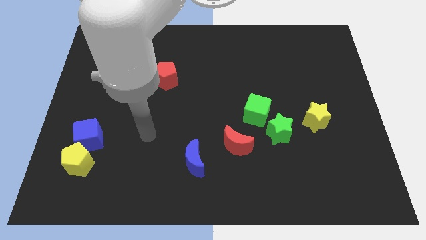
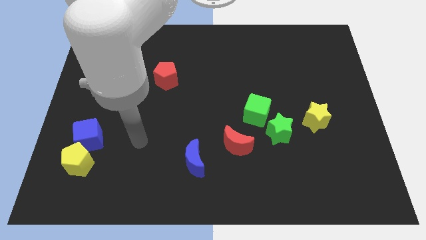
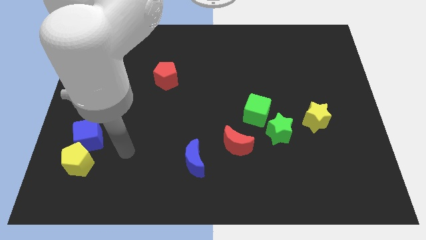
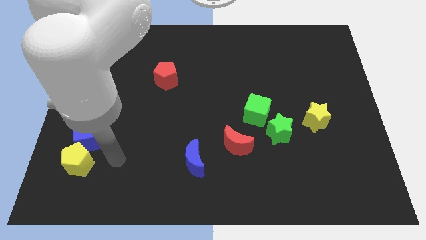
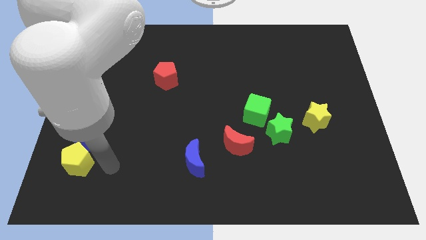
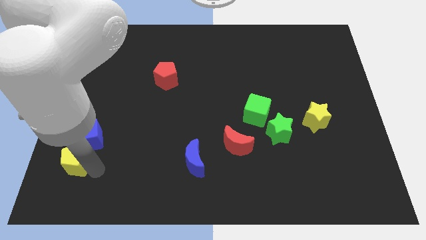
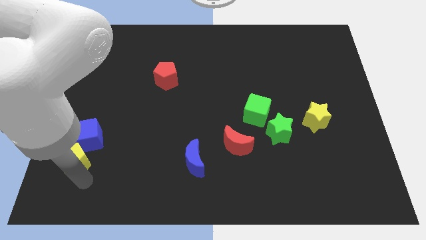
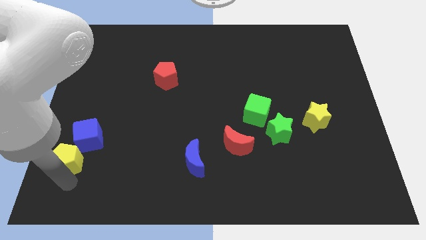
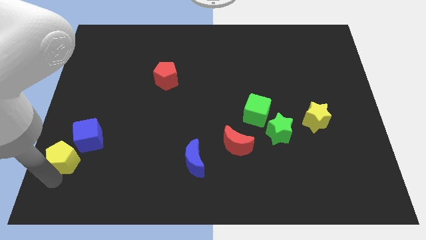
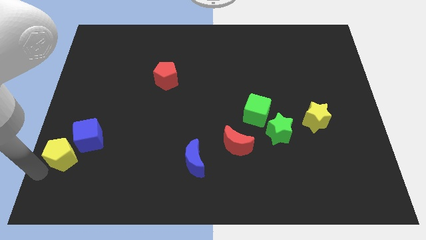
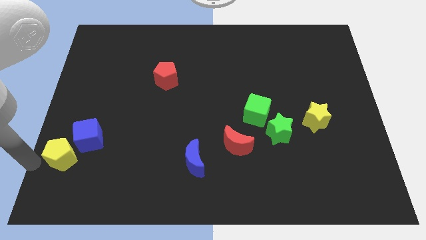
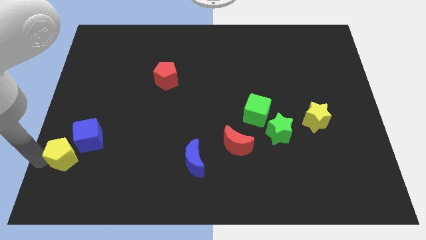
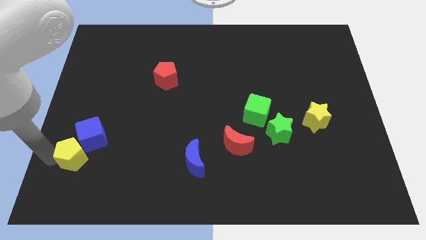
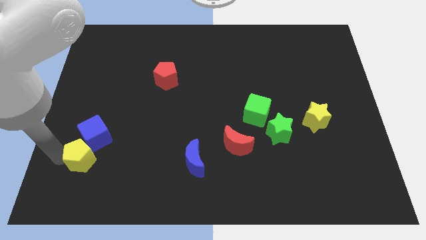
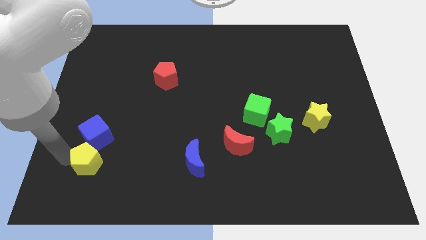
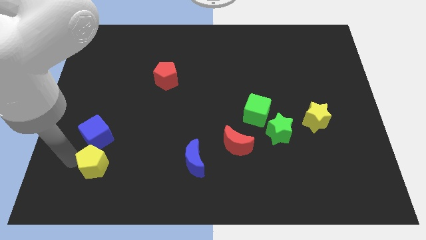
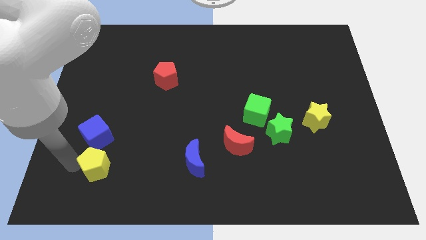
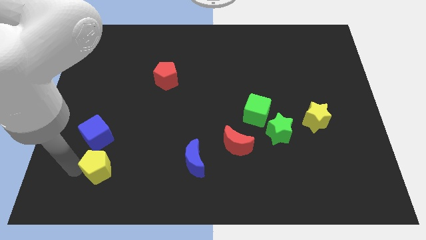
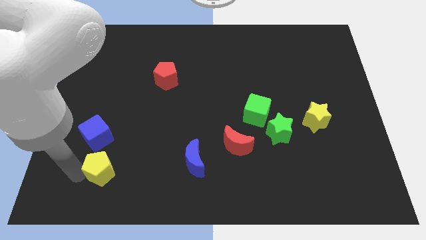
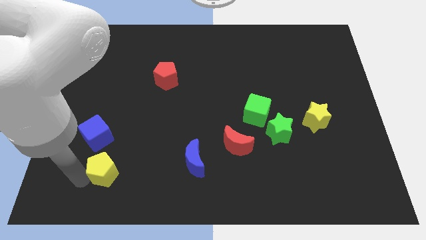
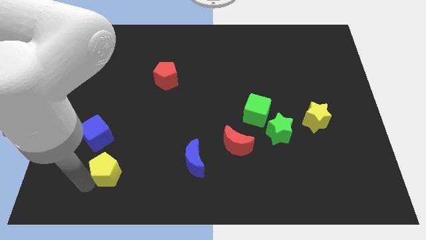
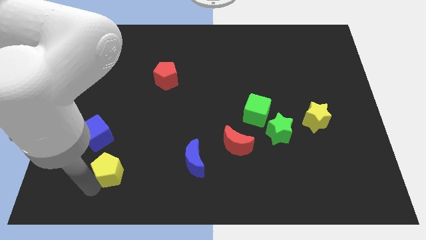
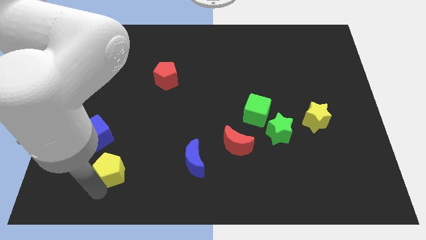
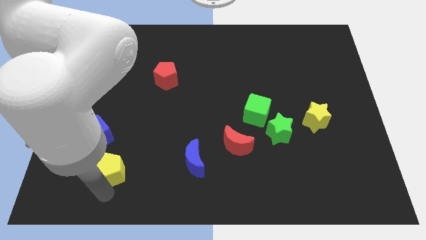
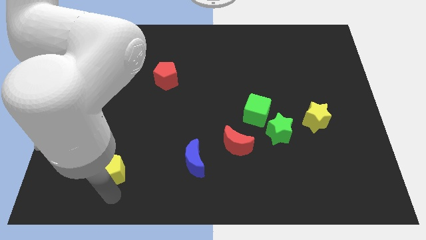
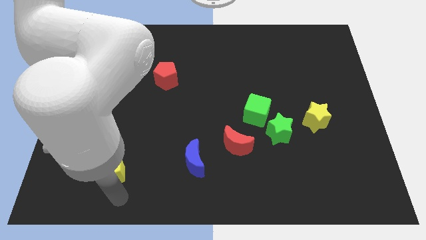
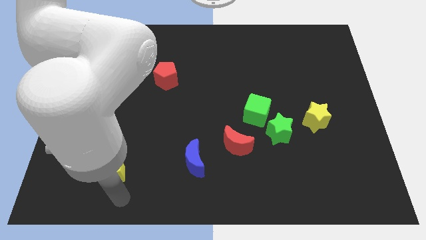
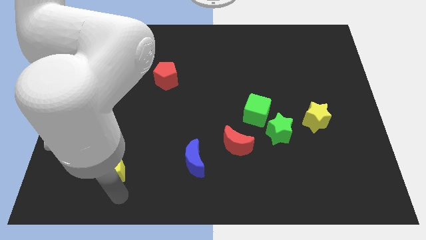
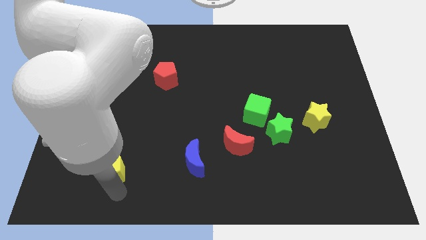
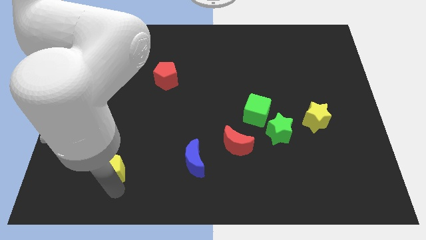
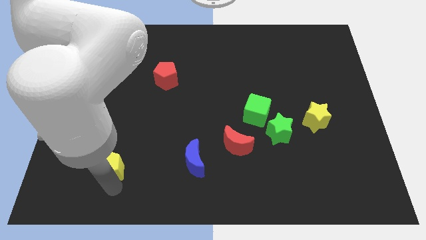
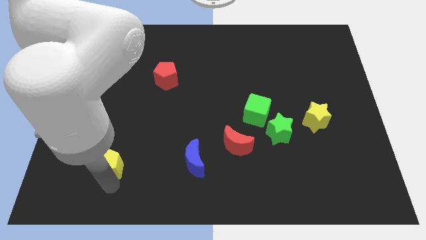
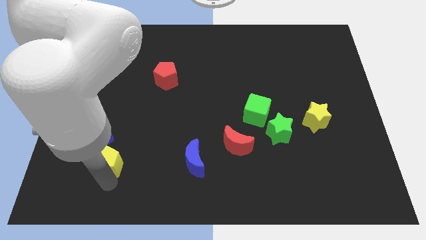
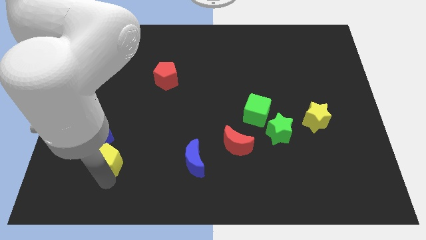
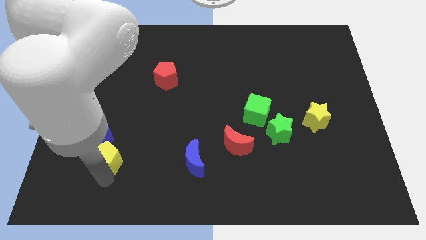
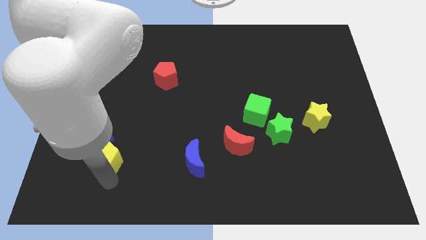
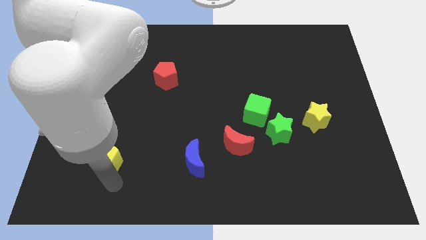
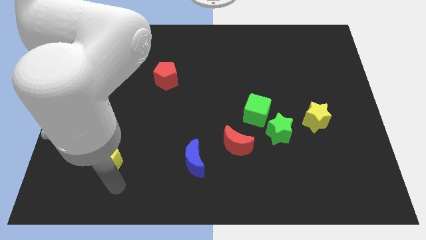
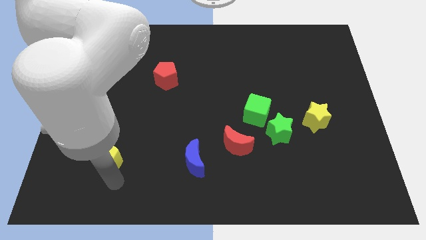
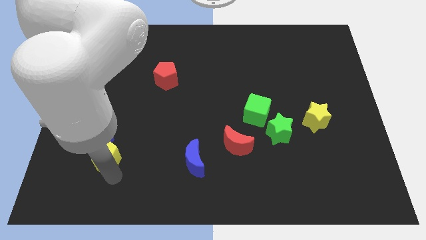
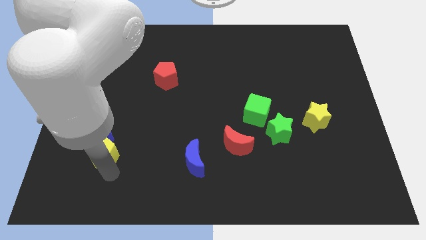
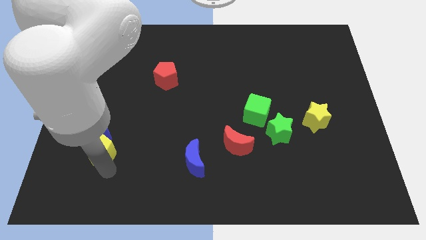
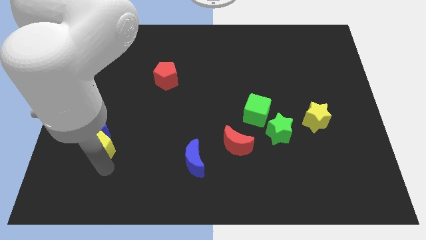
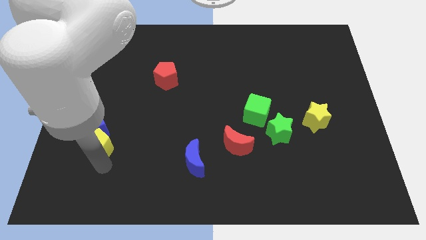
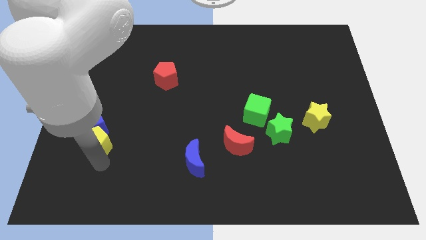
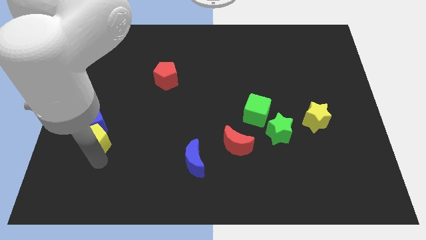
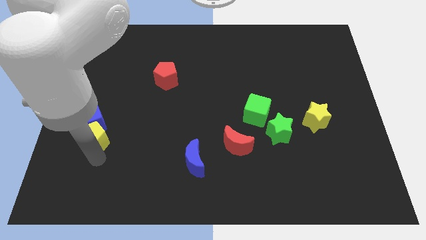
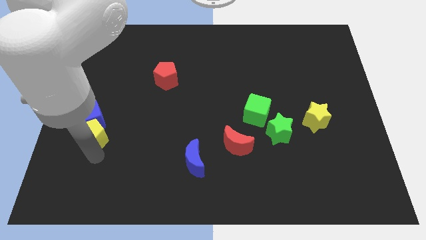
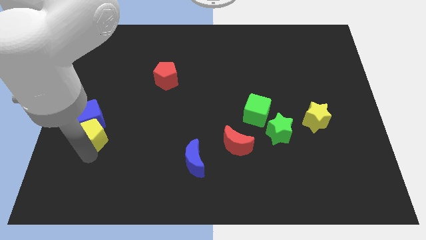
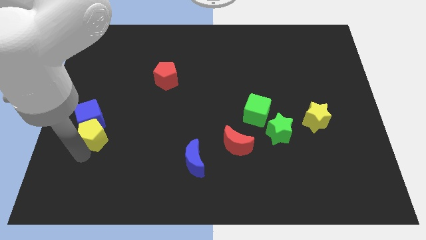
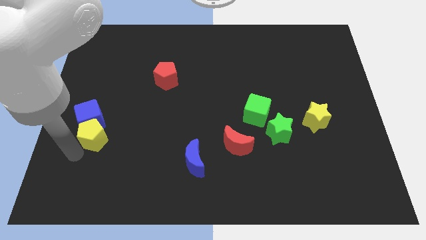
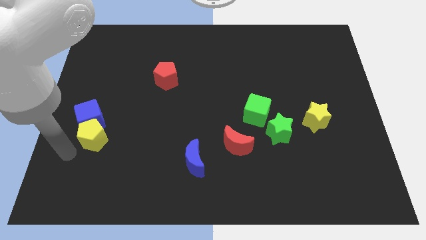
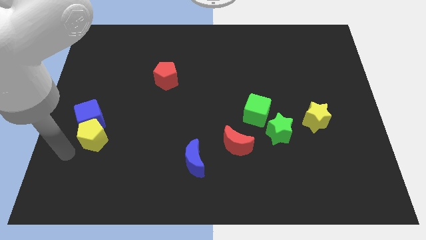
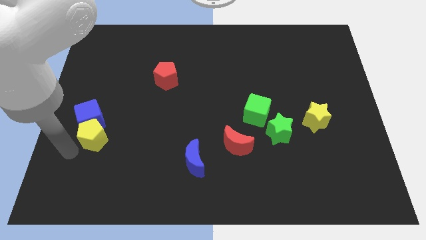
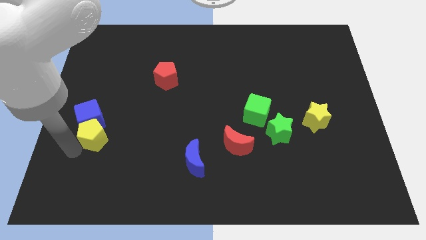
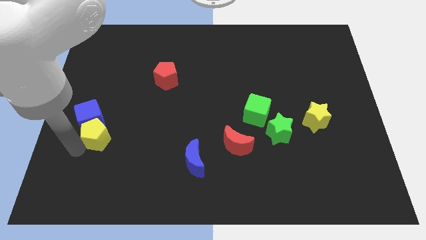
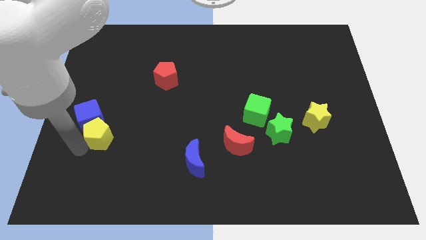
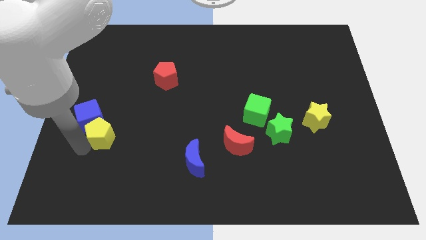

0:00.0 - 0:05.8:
move the yellow pentagon slightly upwards and then right

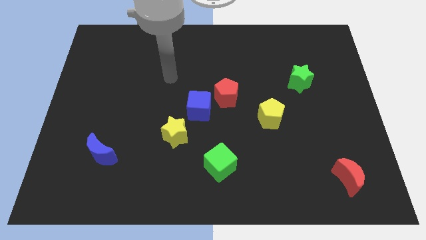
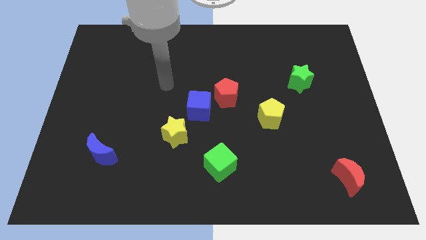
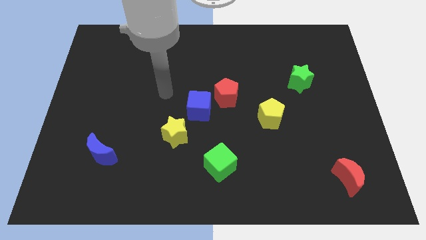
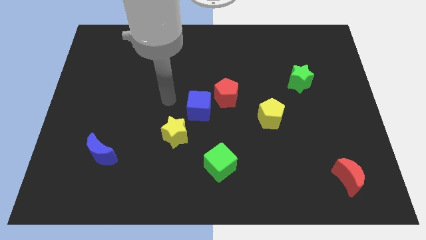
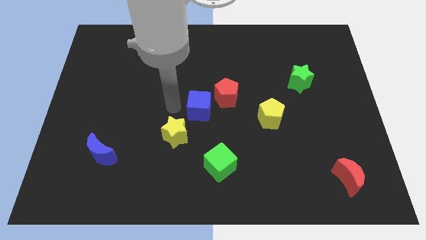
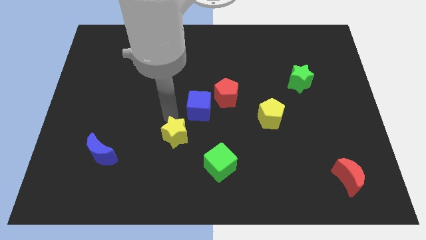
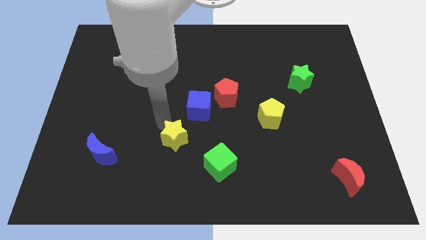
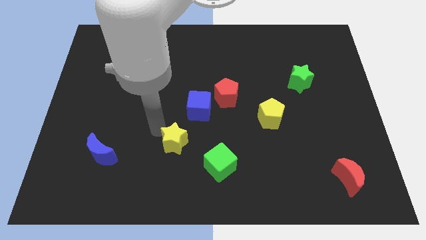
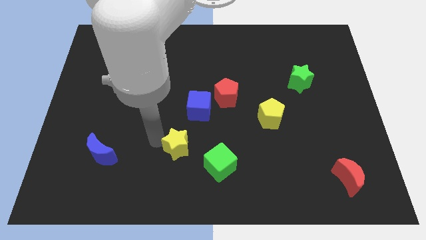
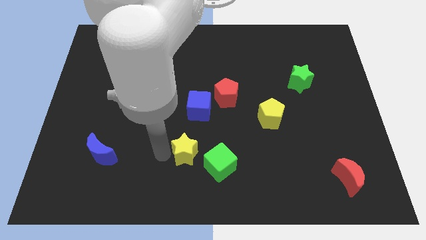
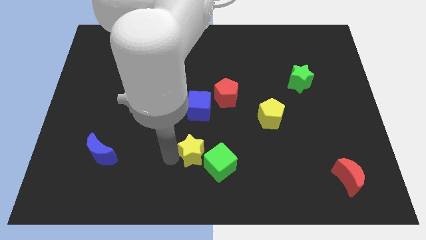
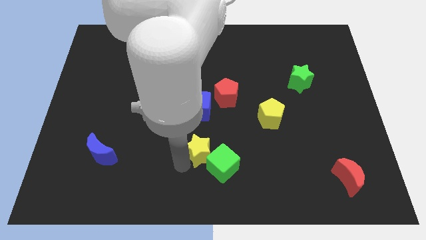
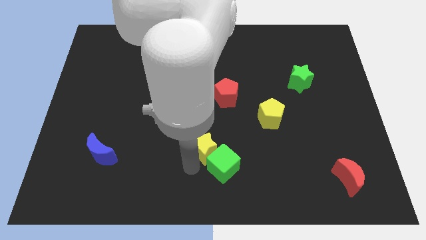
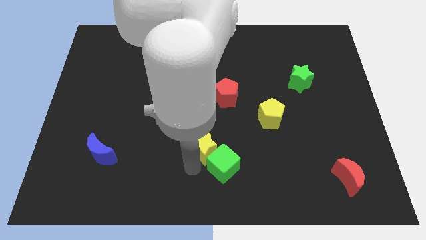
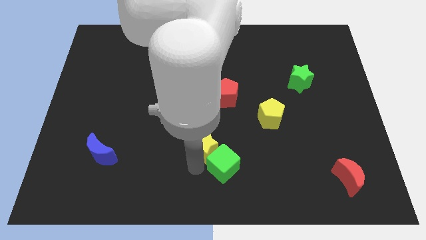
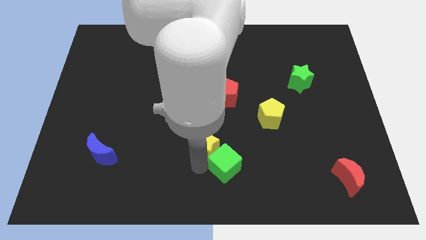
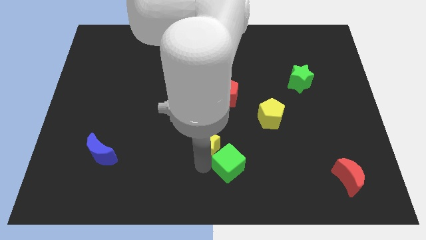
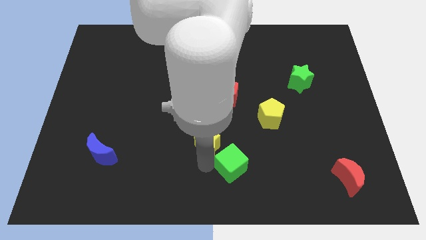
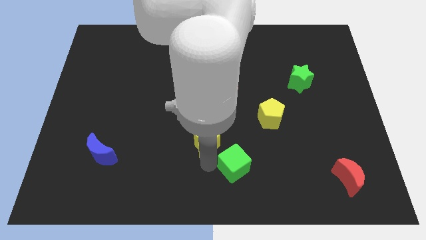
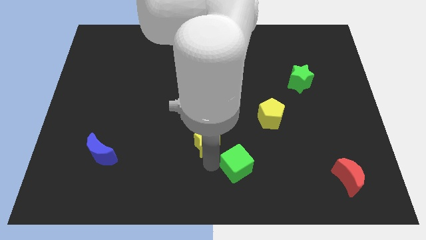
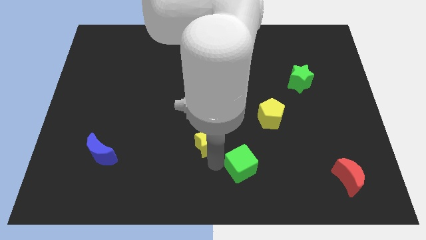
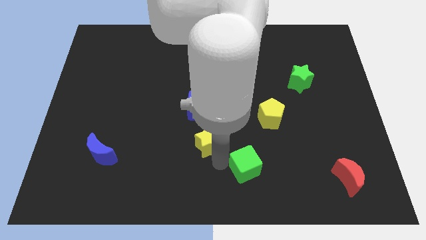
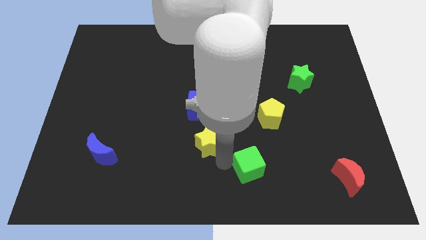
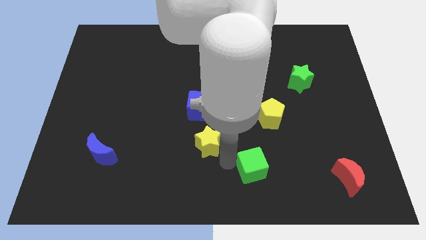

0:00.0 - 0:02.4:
move the green cube right a bit

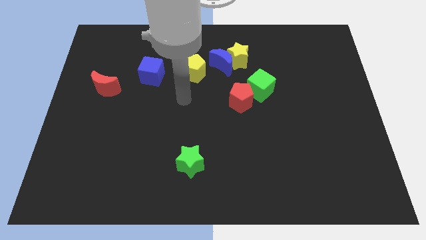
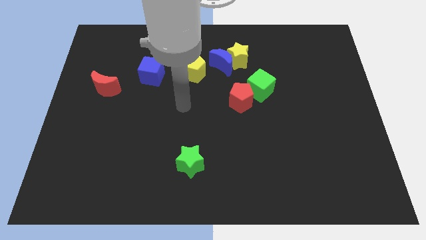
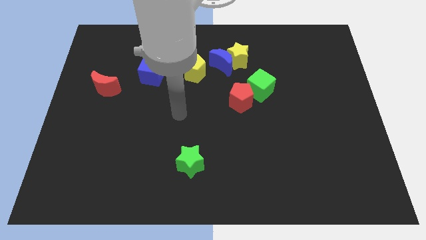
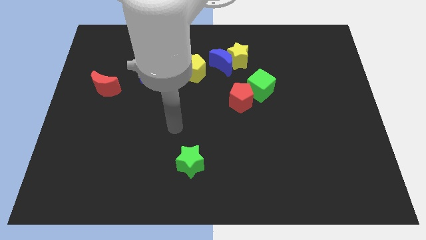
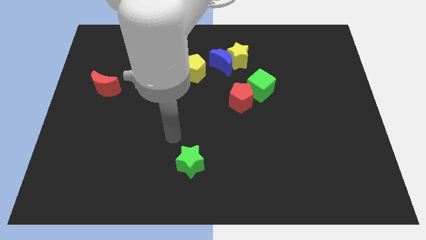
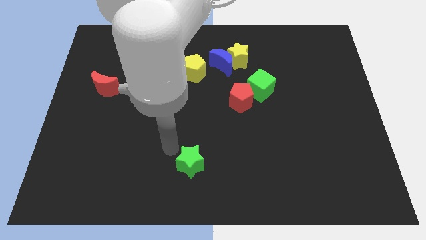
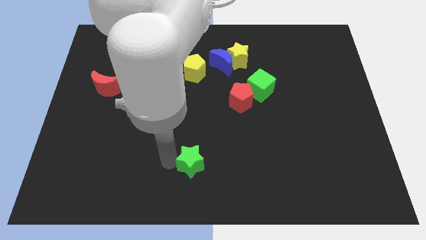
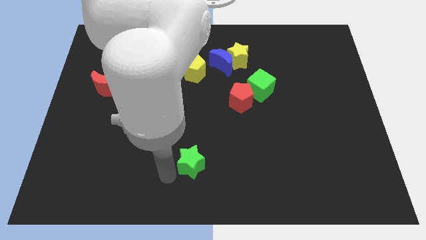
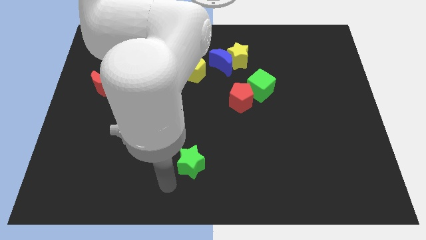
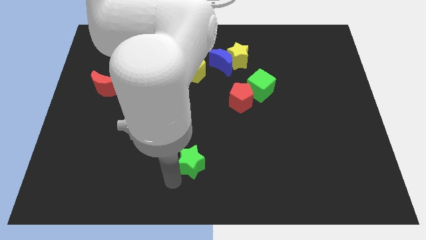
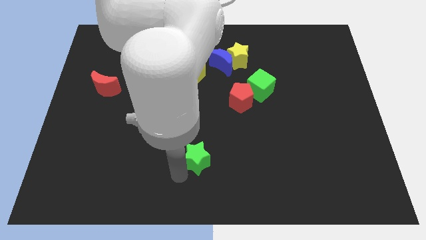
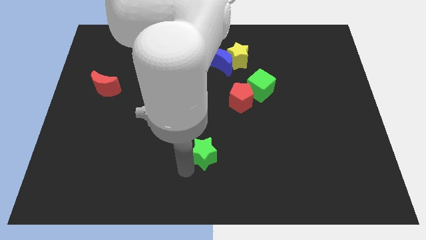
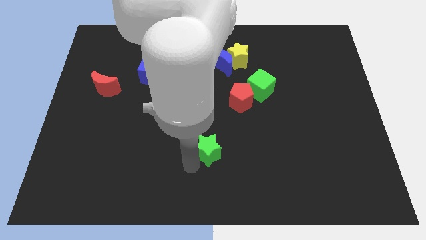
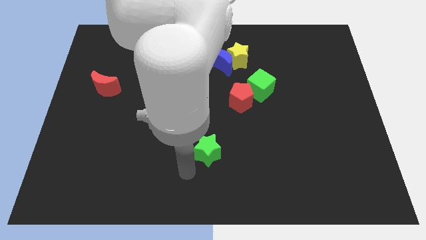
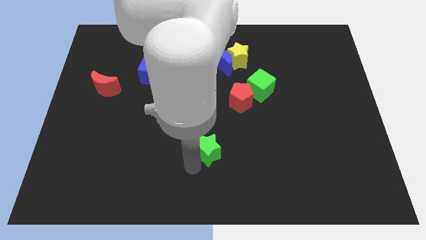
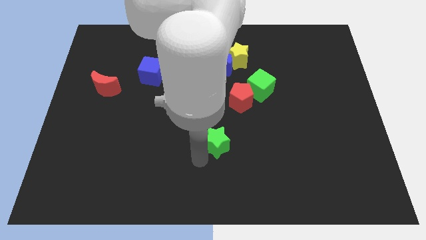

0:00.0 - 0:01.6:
push the green star a bit up and right
